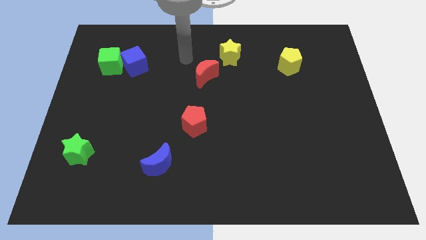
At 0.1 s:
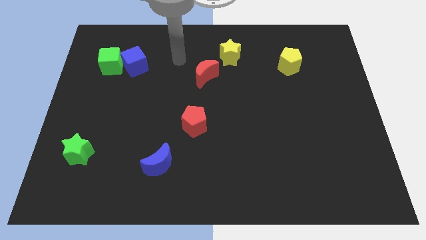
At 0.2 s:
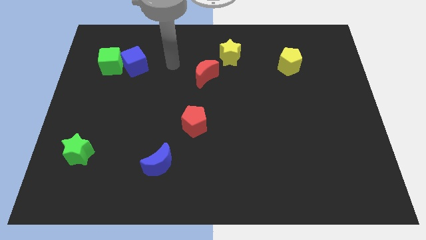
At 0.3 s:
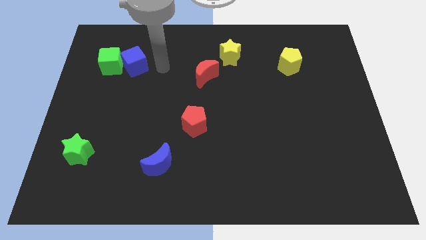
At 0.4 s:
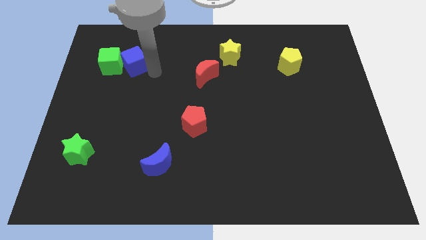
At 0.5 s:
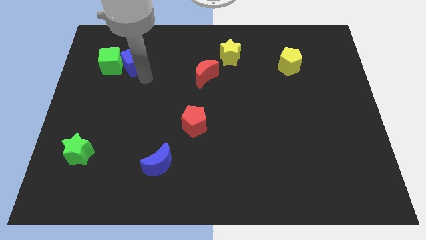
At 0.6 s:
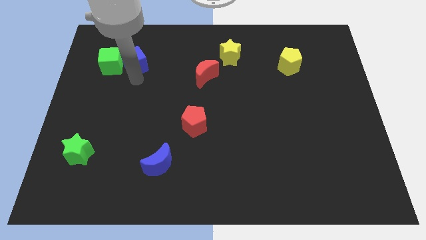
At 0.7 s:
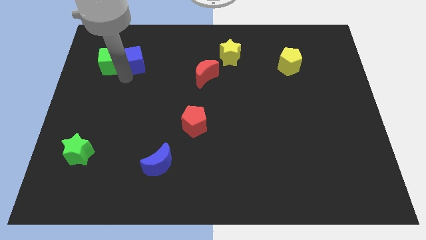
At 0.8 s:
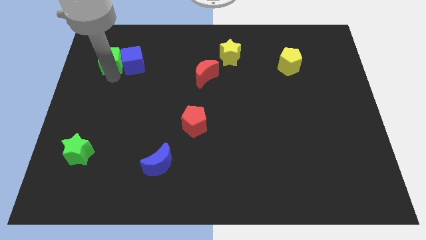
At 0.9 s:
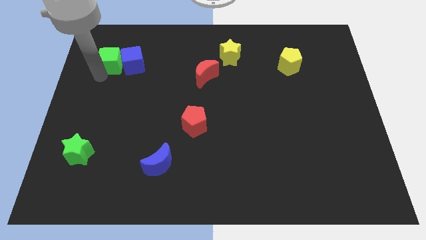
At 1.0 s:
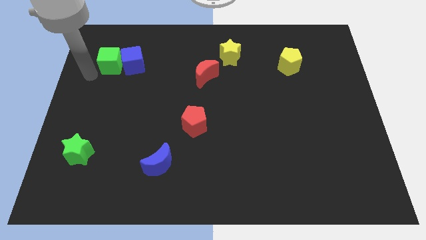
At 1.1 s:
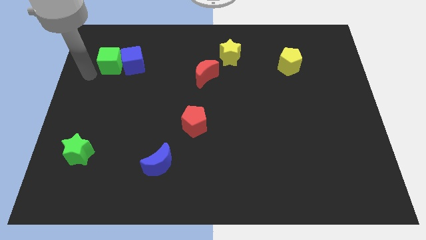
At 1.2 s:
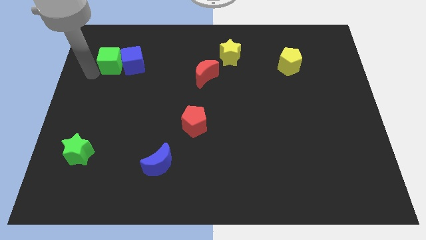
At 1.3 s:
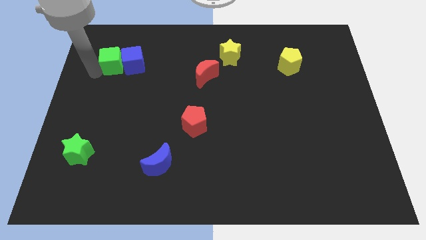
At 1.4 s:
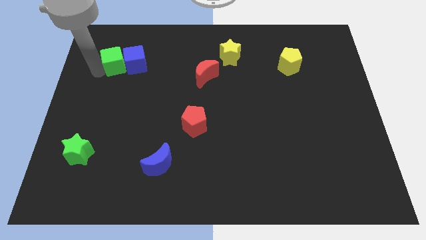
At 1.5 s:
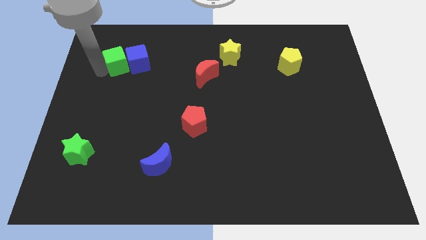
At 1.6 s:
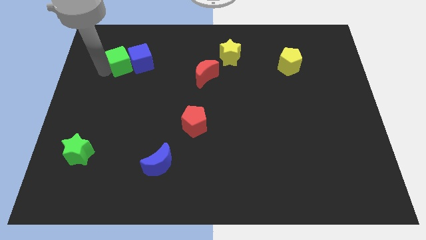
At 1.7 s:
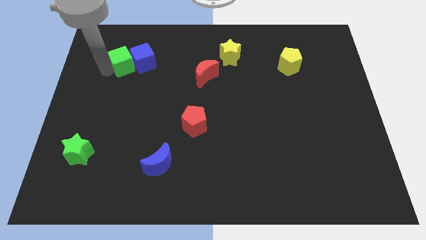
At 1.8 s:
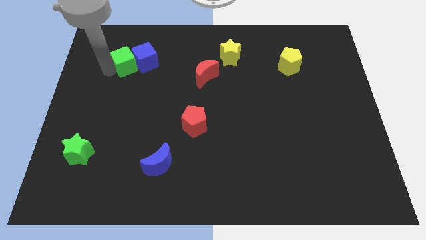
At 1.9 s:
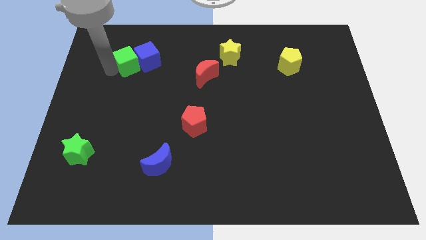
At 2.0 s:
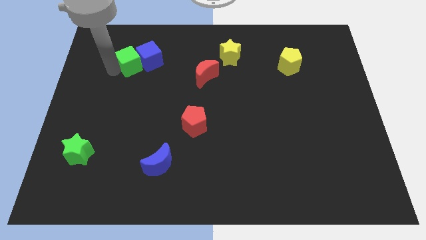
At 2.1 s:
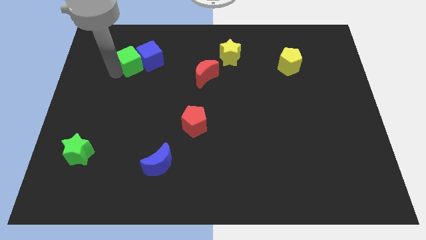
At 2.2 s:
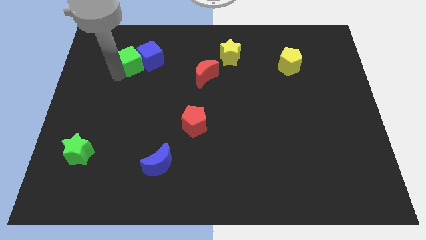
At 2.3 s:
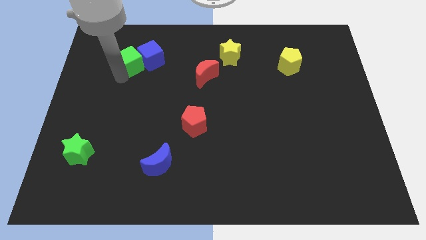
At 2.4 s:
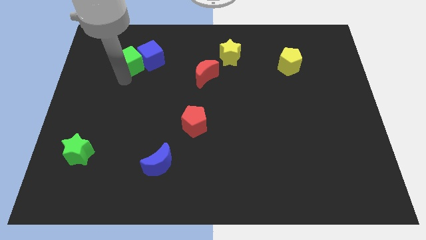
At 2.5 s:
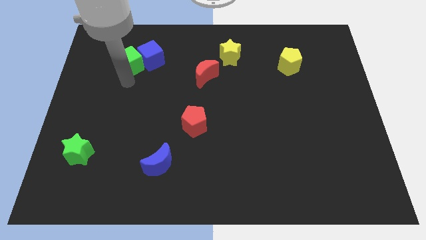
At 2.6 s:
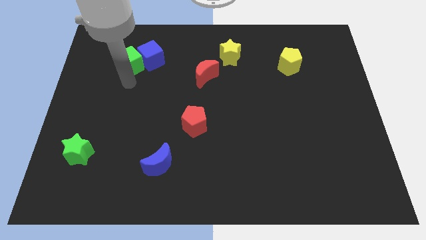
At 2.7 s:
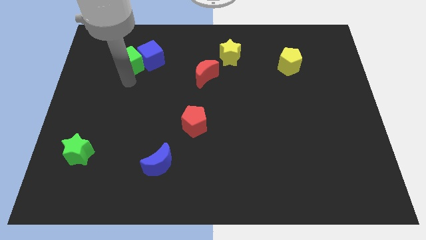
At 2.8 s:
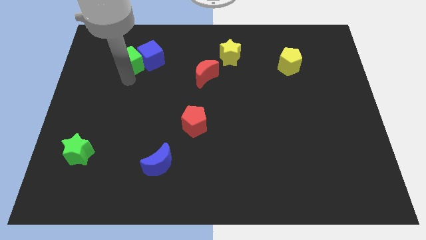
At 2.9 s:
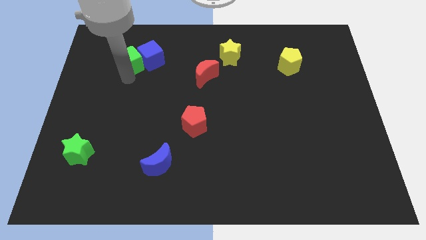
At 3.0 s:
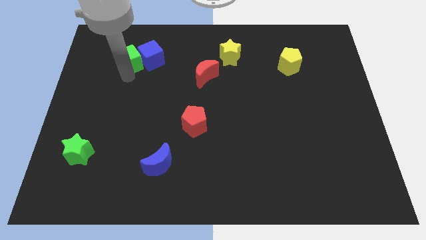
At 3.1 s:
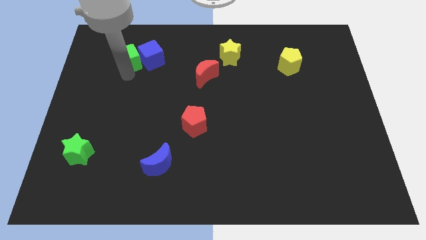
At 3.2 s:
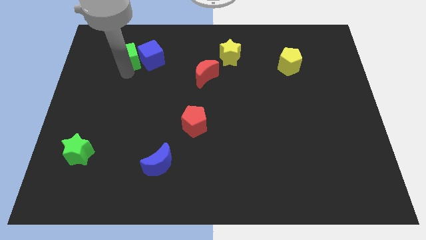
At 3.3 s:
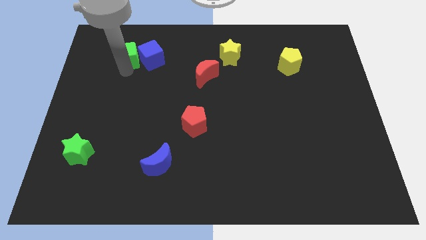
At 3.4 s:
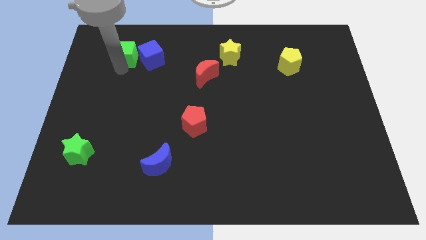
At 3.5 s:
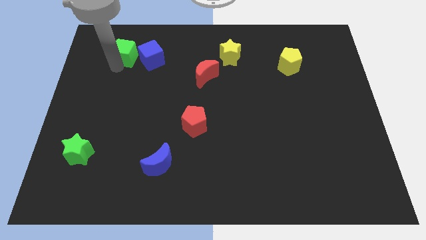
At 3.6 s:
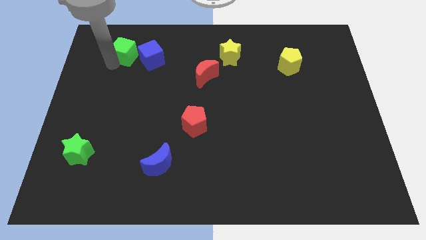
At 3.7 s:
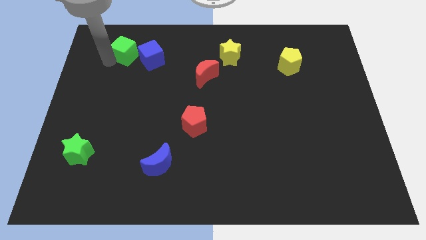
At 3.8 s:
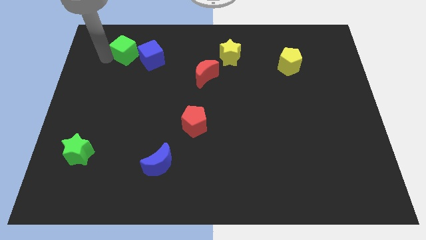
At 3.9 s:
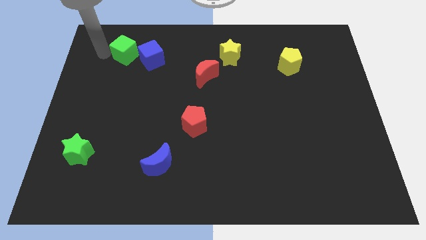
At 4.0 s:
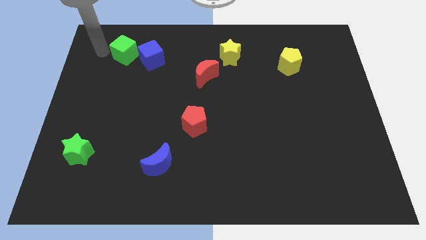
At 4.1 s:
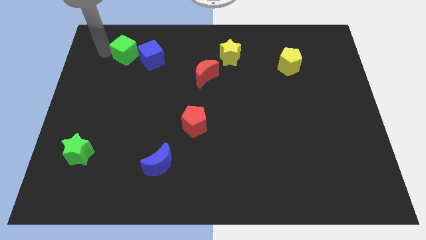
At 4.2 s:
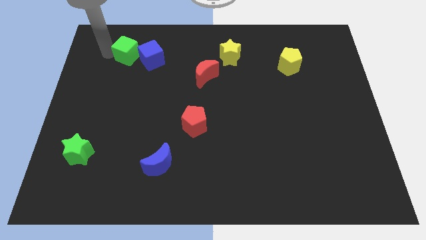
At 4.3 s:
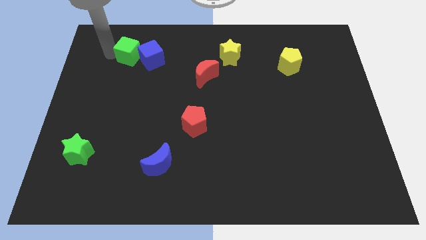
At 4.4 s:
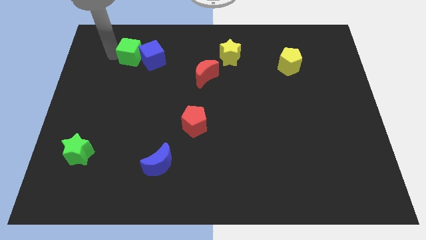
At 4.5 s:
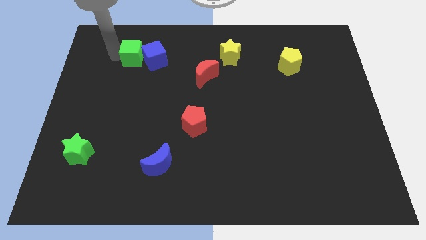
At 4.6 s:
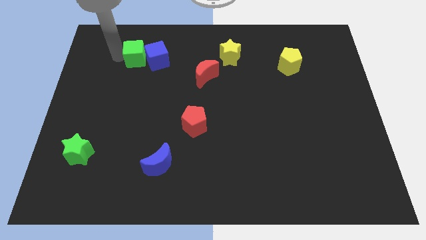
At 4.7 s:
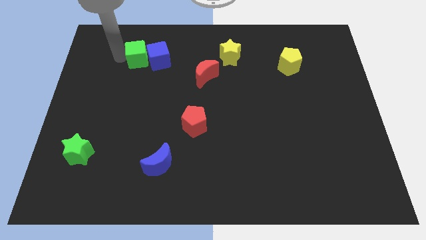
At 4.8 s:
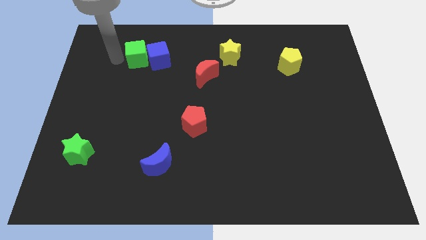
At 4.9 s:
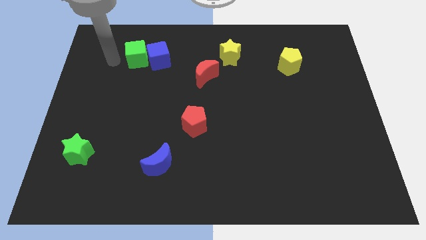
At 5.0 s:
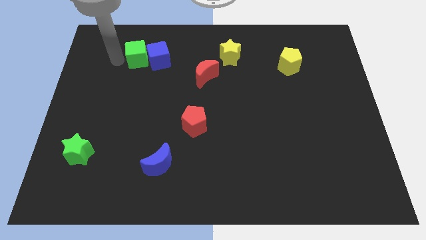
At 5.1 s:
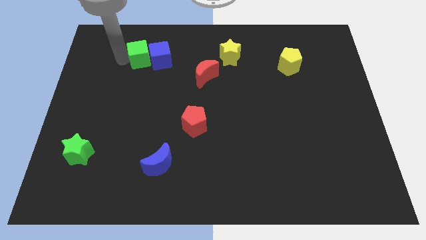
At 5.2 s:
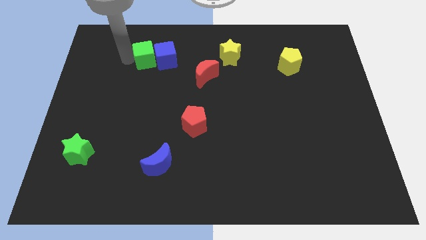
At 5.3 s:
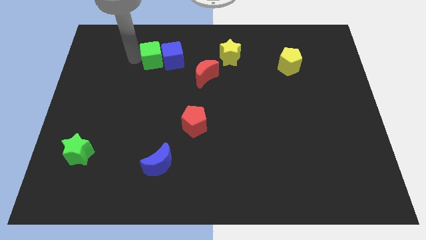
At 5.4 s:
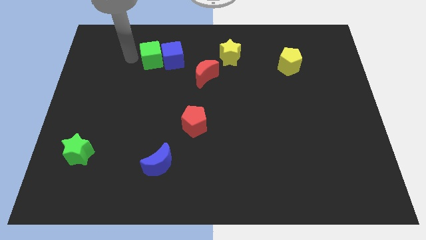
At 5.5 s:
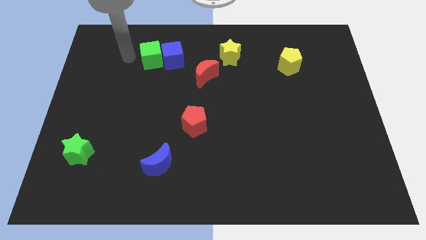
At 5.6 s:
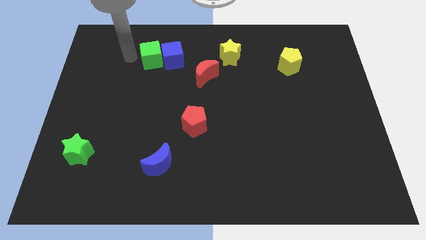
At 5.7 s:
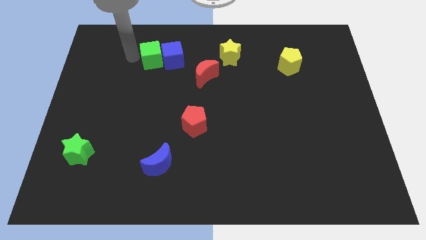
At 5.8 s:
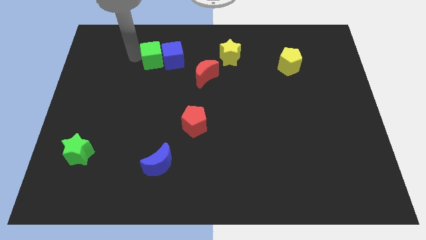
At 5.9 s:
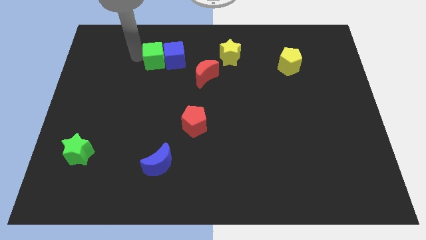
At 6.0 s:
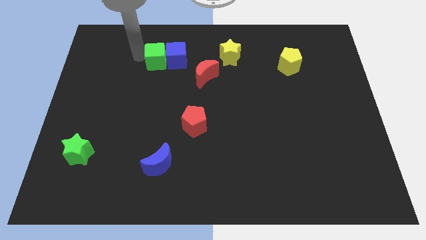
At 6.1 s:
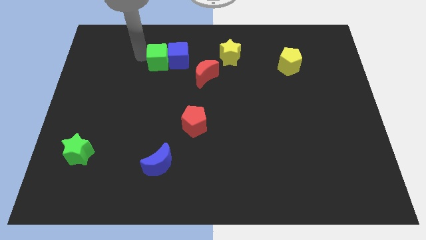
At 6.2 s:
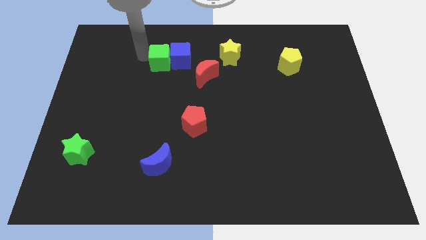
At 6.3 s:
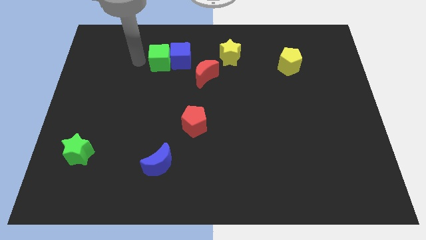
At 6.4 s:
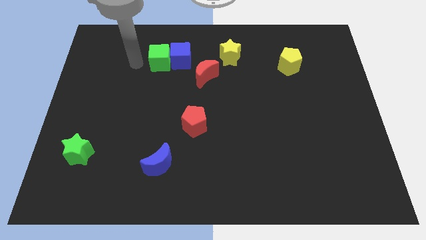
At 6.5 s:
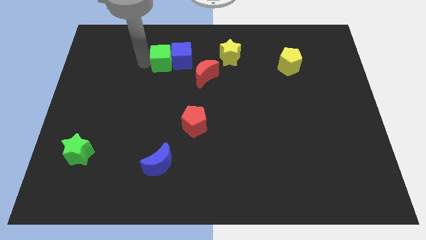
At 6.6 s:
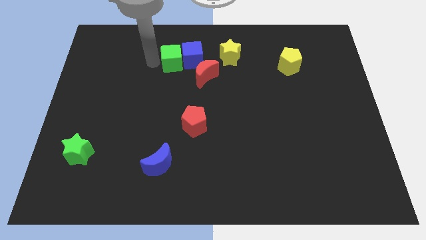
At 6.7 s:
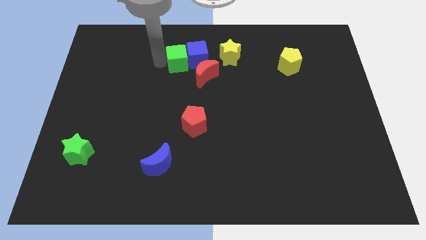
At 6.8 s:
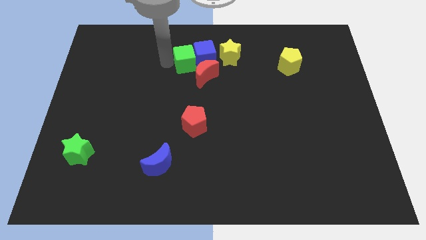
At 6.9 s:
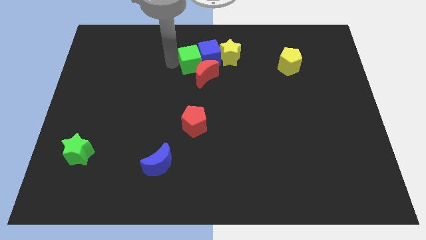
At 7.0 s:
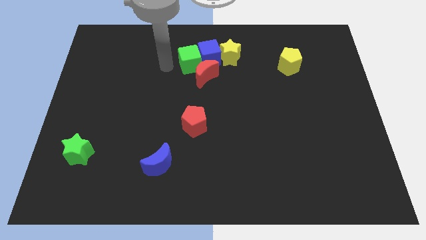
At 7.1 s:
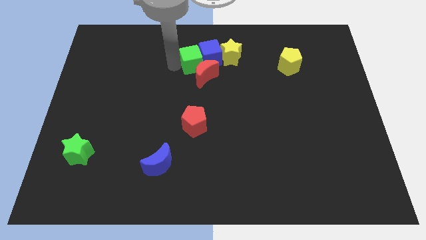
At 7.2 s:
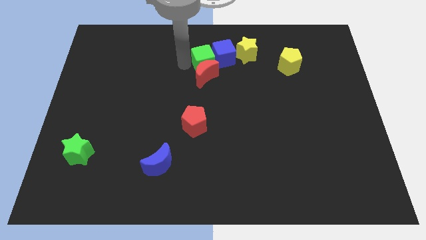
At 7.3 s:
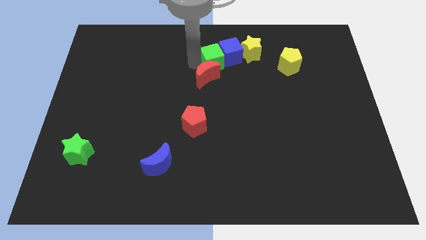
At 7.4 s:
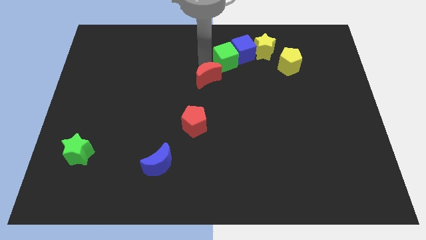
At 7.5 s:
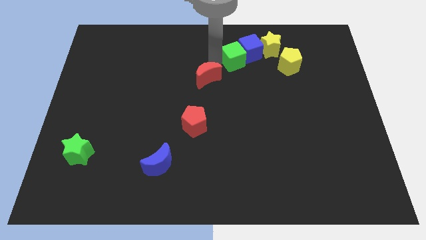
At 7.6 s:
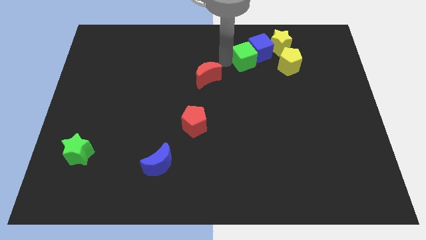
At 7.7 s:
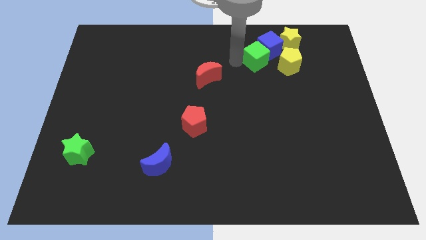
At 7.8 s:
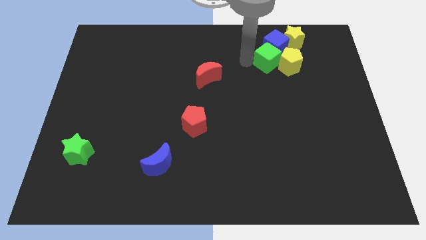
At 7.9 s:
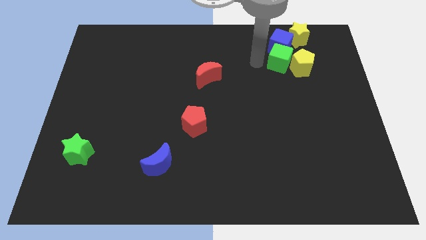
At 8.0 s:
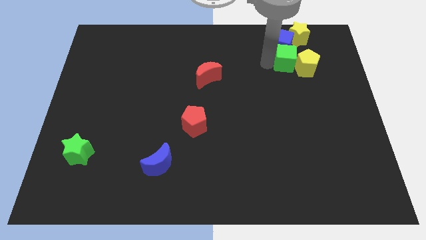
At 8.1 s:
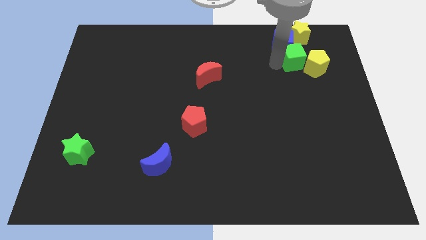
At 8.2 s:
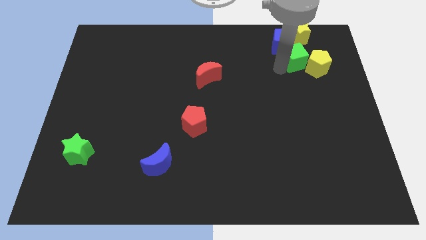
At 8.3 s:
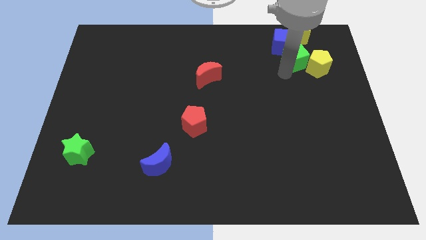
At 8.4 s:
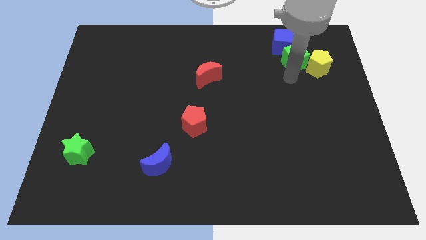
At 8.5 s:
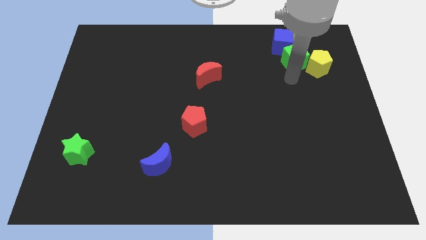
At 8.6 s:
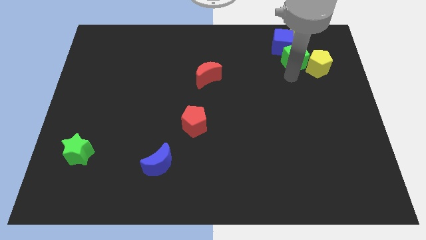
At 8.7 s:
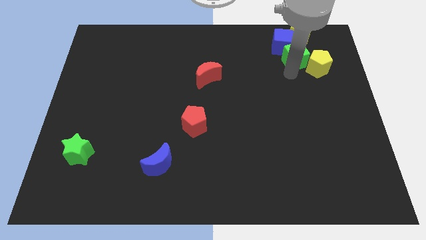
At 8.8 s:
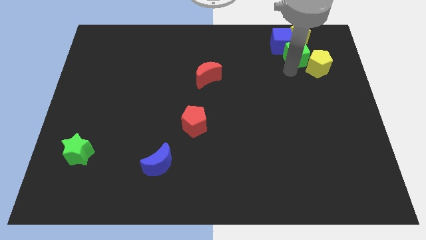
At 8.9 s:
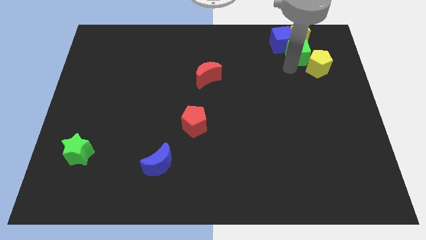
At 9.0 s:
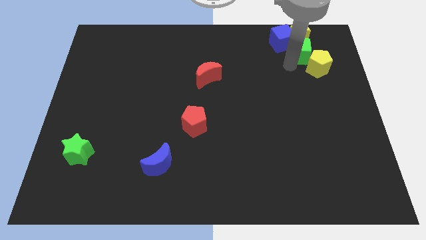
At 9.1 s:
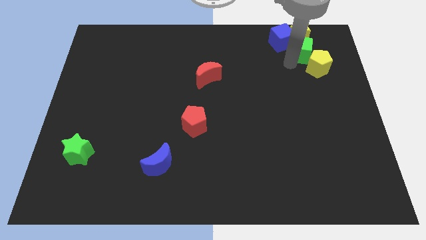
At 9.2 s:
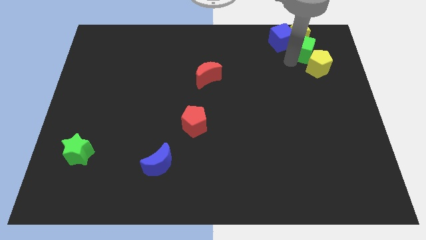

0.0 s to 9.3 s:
slide the green cube towards the yellow star
